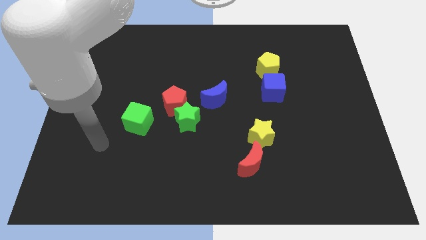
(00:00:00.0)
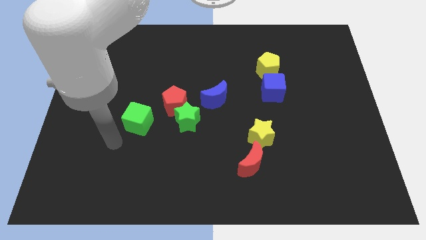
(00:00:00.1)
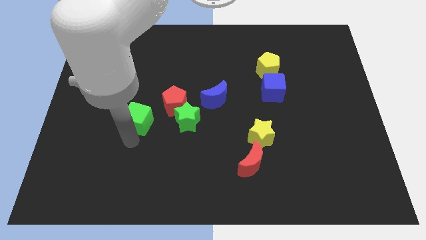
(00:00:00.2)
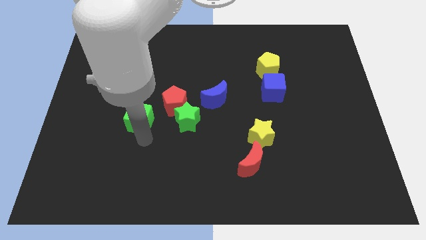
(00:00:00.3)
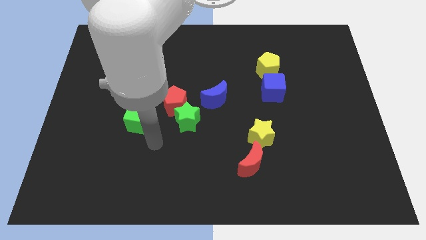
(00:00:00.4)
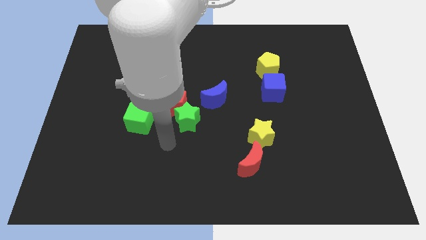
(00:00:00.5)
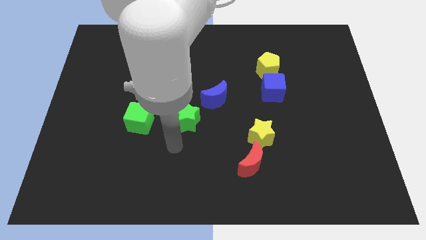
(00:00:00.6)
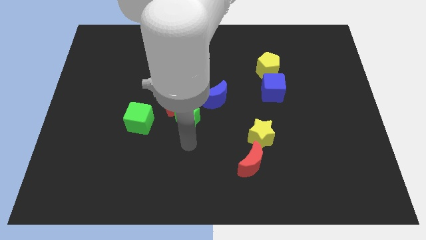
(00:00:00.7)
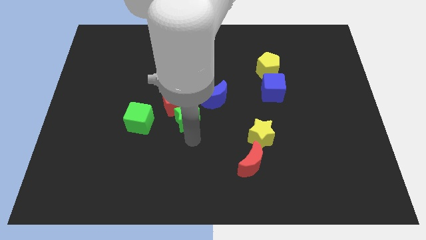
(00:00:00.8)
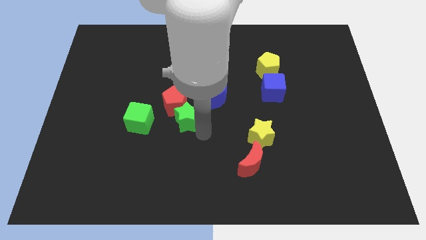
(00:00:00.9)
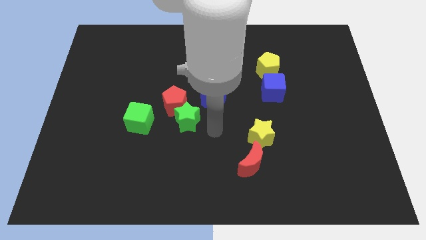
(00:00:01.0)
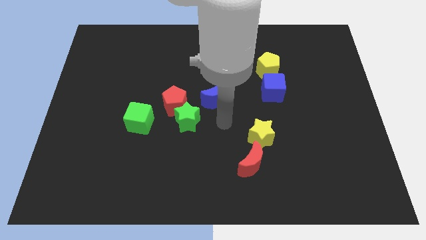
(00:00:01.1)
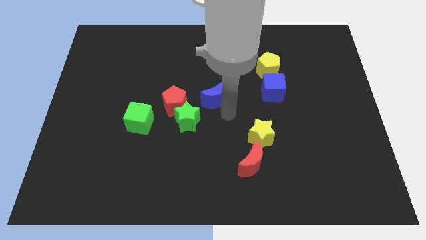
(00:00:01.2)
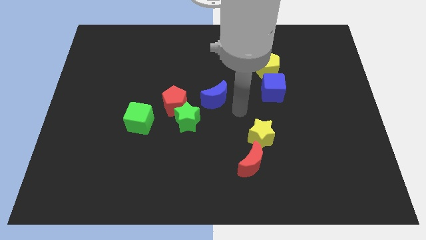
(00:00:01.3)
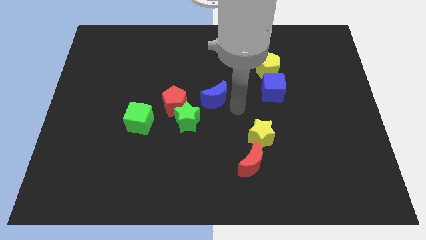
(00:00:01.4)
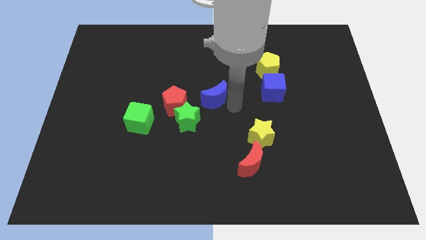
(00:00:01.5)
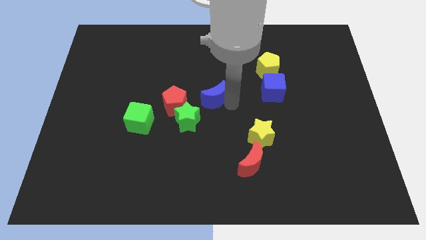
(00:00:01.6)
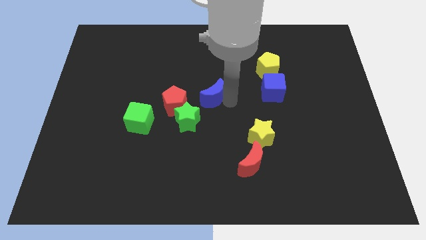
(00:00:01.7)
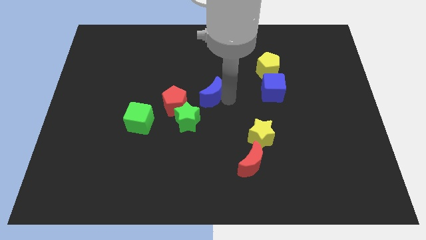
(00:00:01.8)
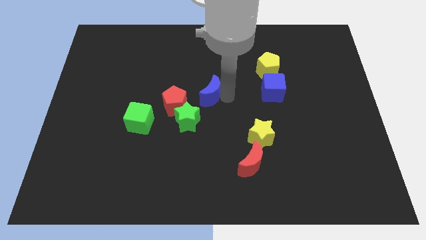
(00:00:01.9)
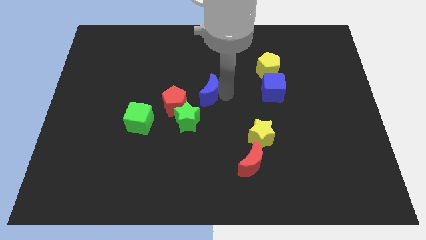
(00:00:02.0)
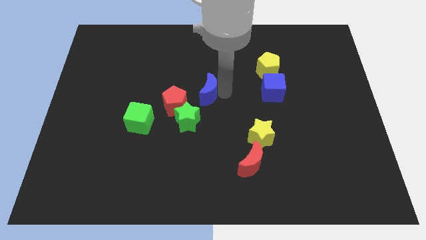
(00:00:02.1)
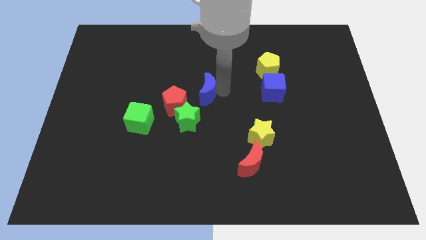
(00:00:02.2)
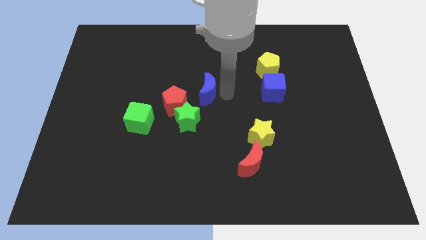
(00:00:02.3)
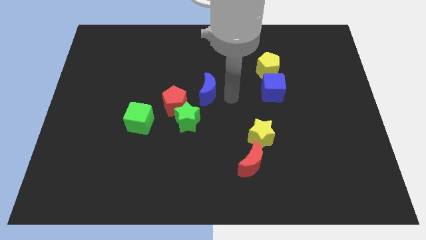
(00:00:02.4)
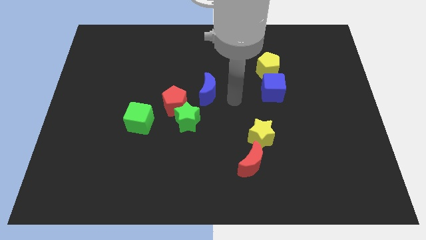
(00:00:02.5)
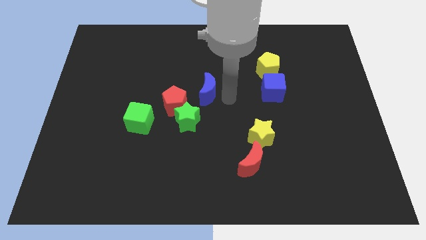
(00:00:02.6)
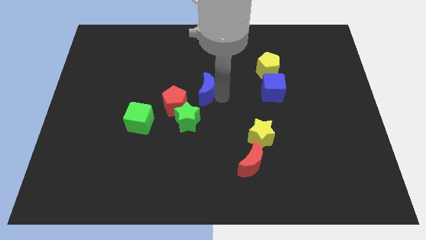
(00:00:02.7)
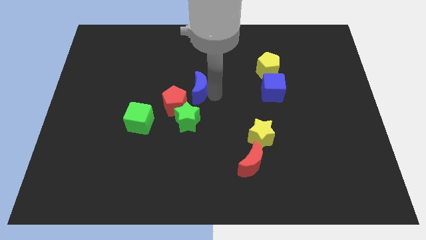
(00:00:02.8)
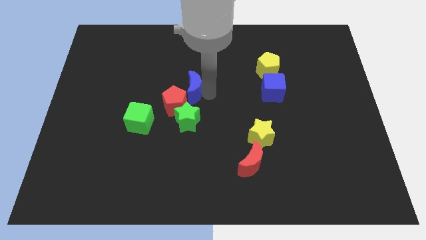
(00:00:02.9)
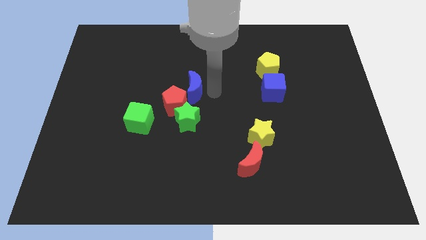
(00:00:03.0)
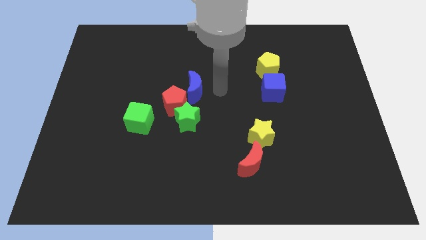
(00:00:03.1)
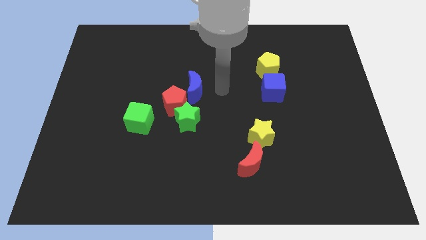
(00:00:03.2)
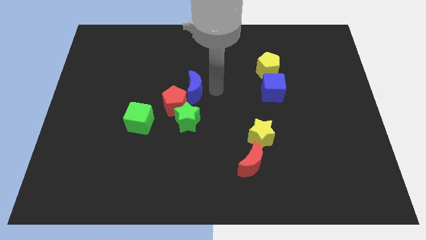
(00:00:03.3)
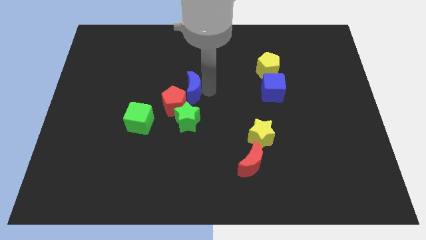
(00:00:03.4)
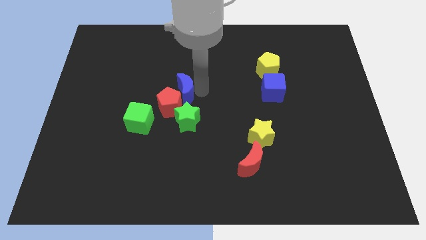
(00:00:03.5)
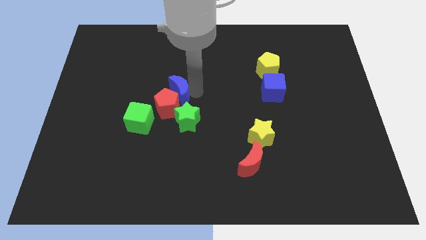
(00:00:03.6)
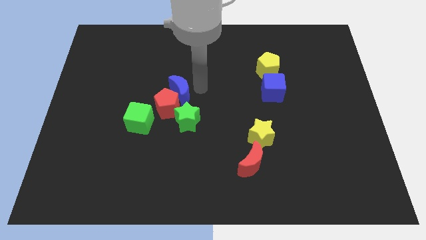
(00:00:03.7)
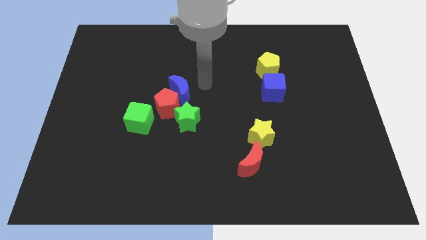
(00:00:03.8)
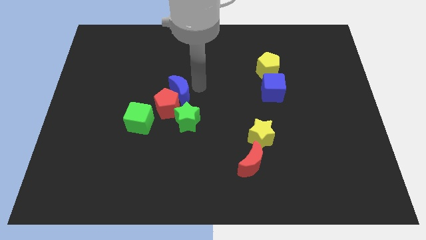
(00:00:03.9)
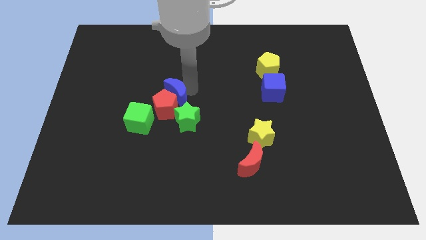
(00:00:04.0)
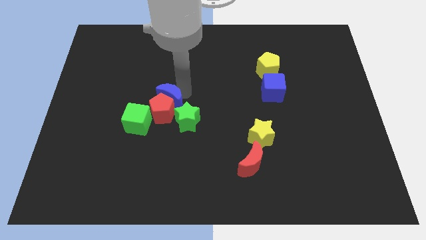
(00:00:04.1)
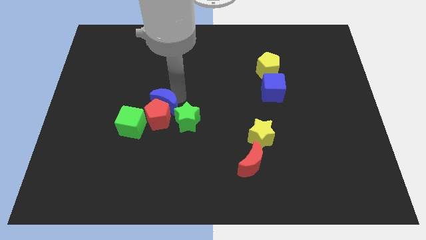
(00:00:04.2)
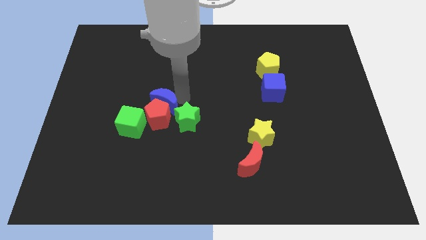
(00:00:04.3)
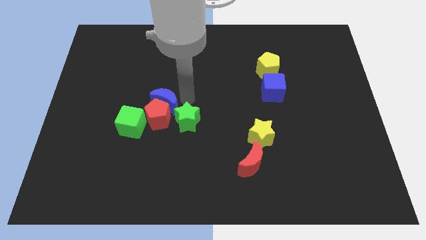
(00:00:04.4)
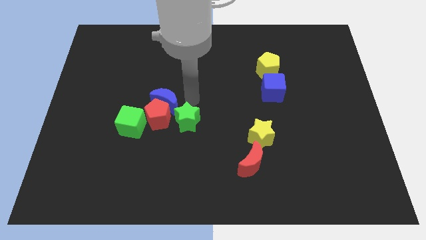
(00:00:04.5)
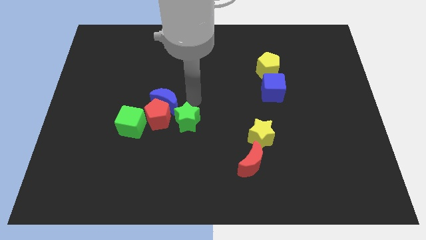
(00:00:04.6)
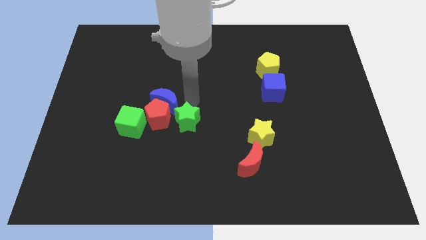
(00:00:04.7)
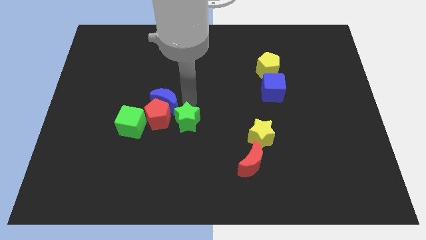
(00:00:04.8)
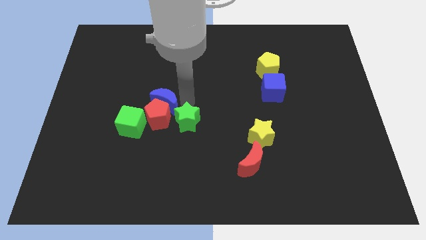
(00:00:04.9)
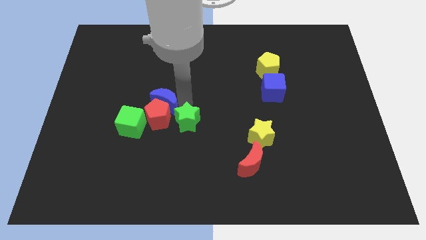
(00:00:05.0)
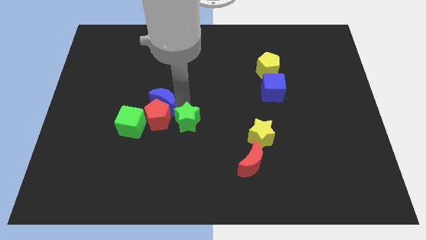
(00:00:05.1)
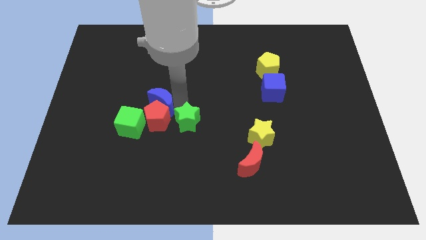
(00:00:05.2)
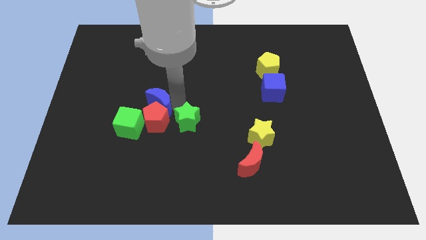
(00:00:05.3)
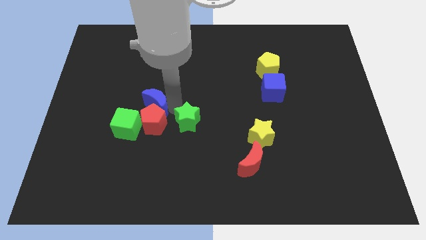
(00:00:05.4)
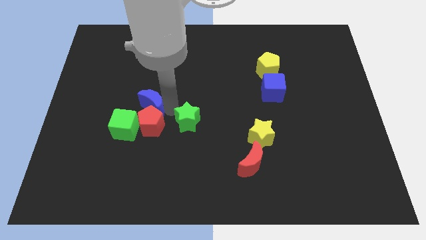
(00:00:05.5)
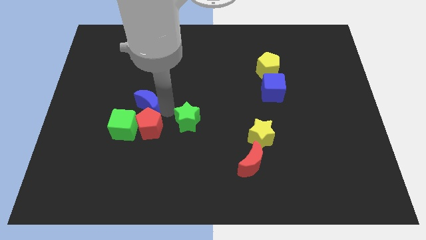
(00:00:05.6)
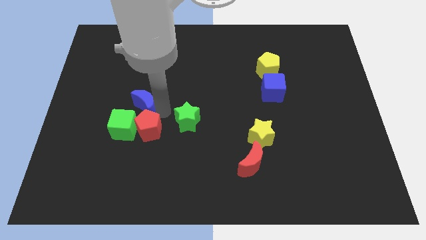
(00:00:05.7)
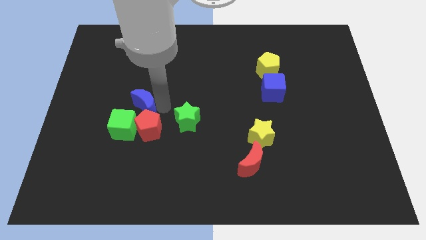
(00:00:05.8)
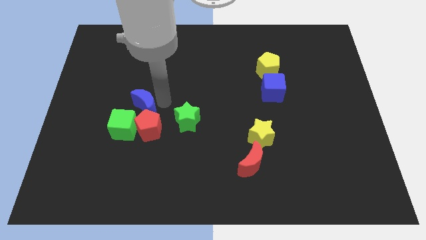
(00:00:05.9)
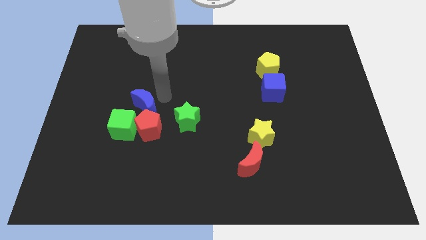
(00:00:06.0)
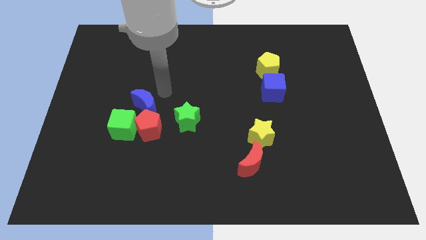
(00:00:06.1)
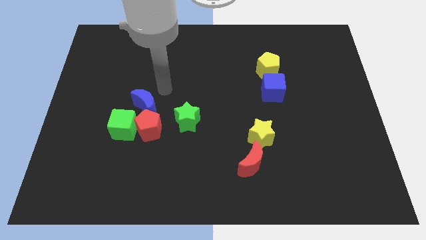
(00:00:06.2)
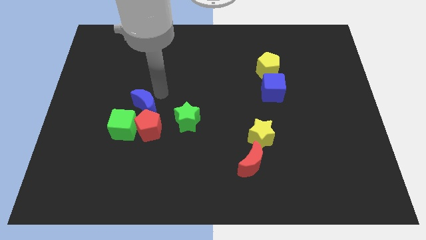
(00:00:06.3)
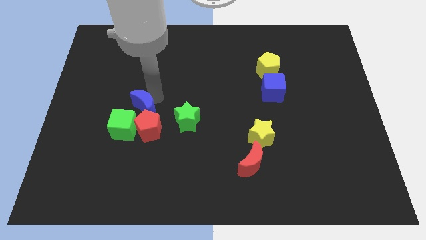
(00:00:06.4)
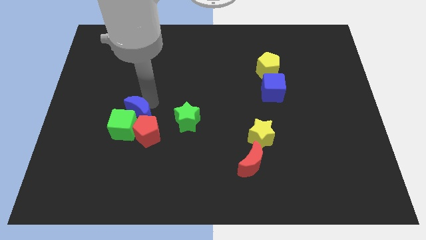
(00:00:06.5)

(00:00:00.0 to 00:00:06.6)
put the blue moon close to the green cube
